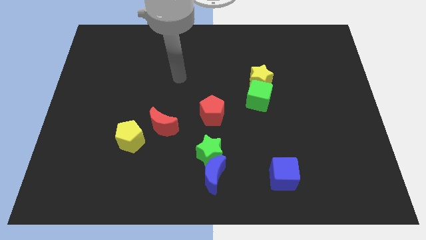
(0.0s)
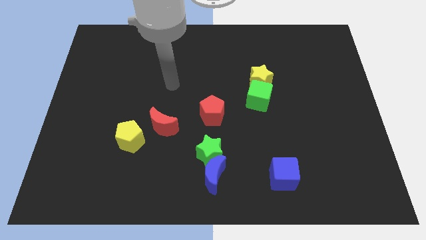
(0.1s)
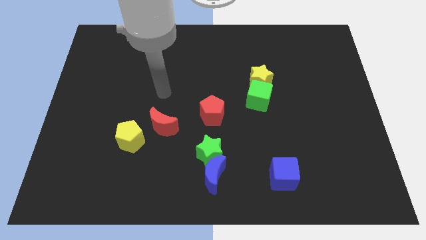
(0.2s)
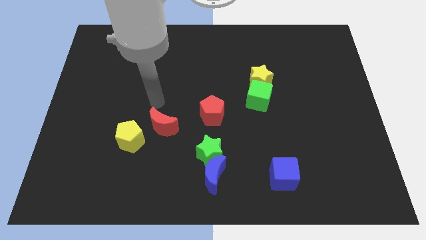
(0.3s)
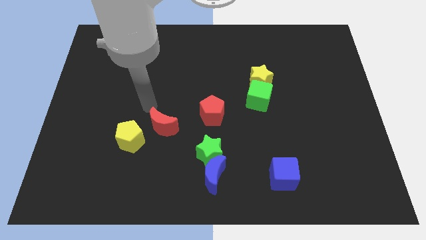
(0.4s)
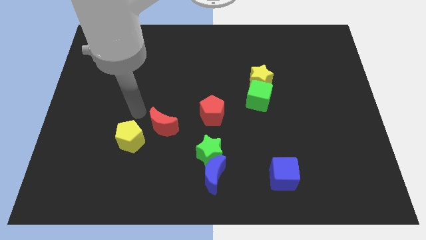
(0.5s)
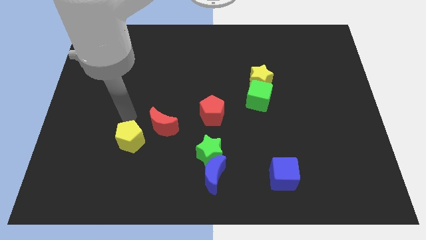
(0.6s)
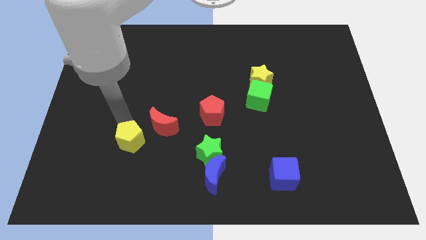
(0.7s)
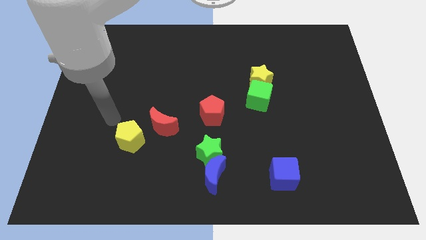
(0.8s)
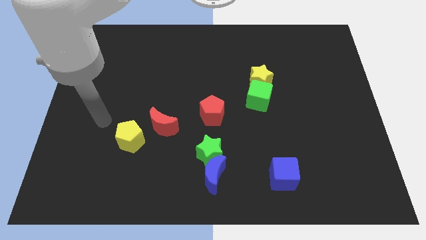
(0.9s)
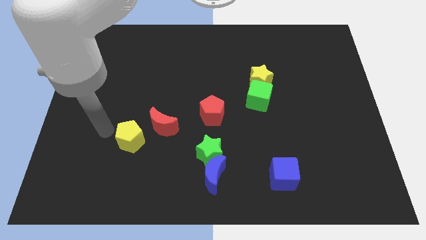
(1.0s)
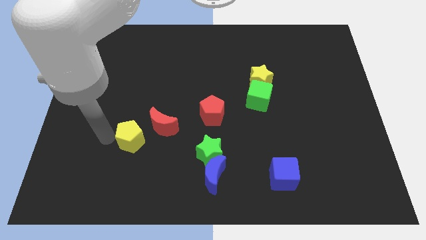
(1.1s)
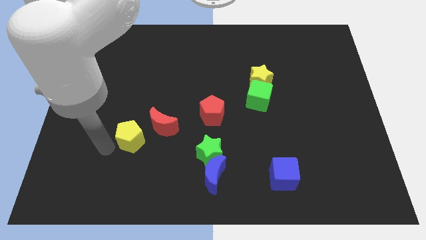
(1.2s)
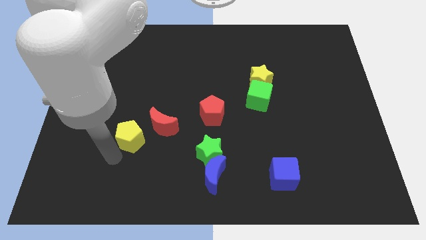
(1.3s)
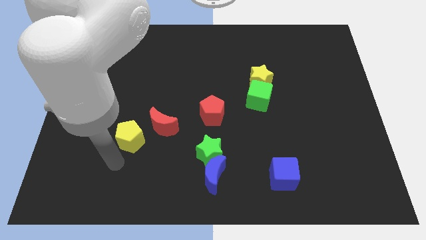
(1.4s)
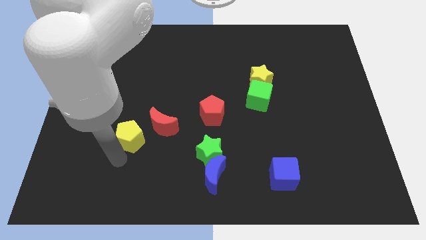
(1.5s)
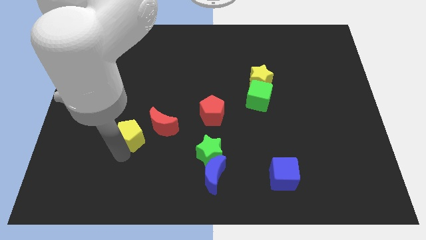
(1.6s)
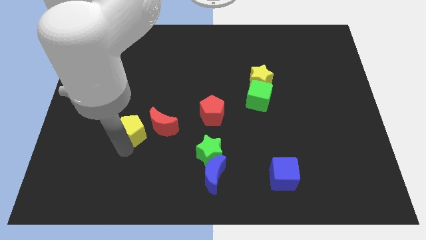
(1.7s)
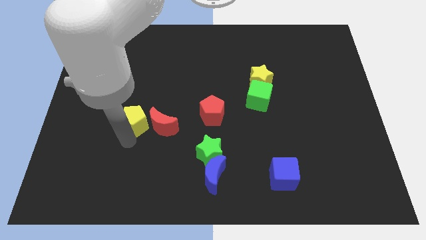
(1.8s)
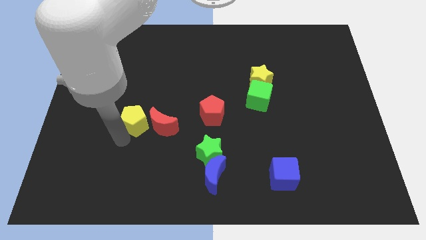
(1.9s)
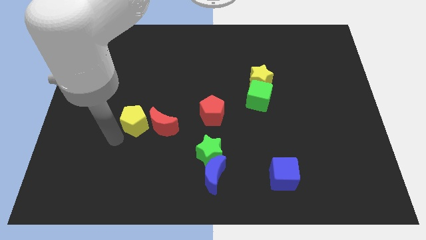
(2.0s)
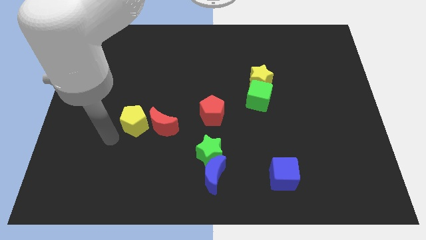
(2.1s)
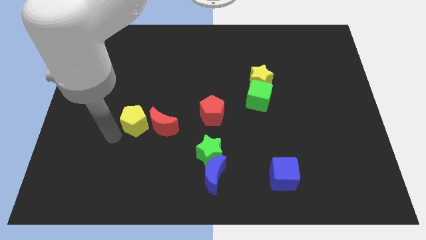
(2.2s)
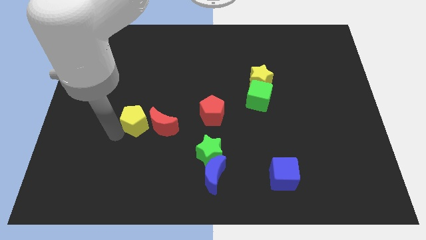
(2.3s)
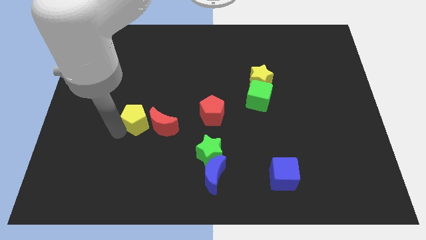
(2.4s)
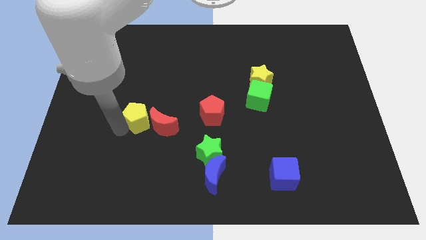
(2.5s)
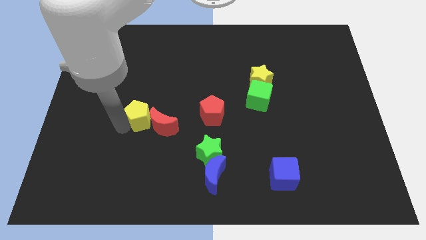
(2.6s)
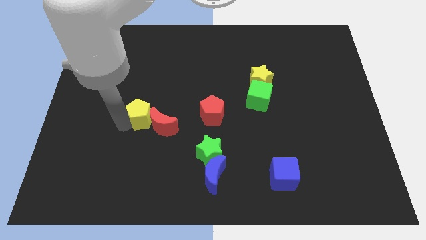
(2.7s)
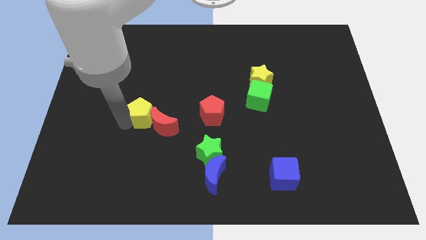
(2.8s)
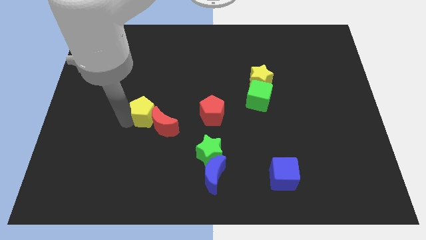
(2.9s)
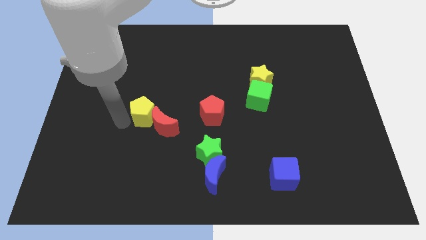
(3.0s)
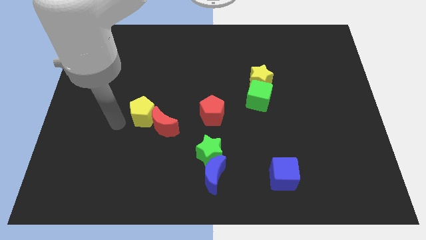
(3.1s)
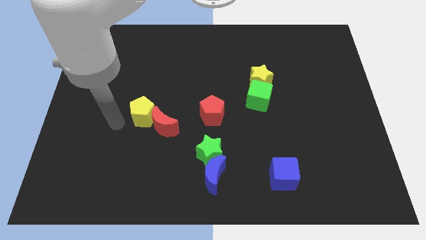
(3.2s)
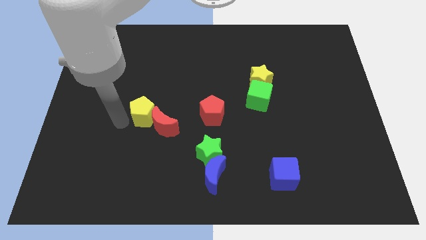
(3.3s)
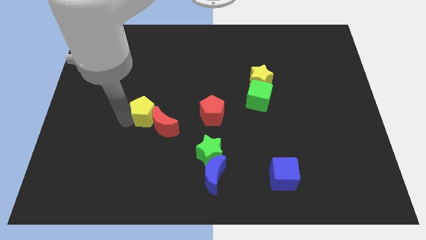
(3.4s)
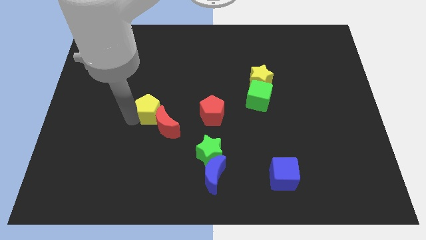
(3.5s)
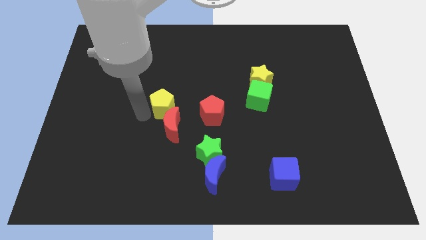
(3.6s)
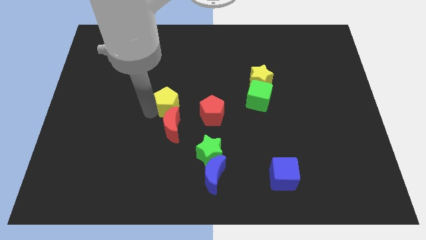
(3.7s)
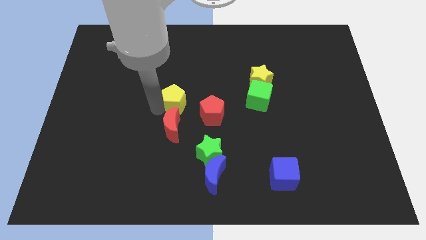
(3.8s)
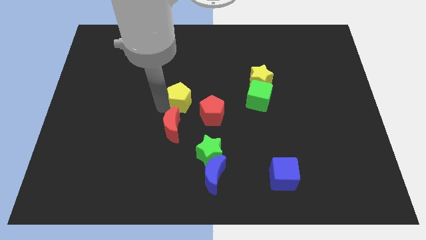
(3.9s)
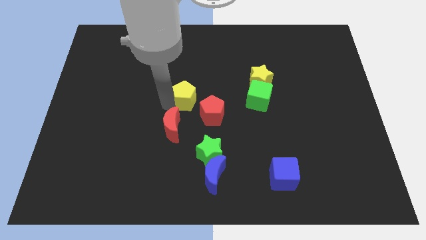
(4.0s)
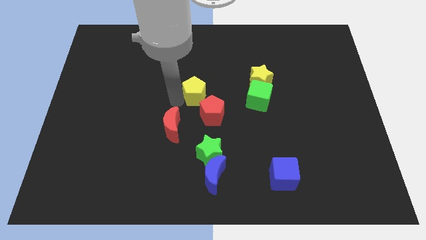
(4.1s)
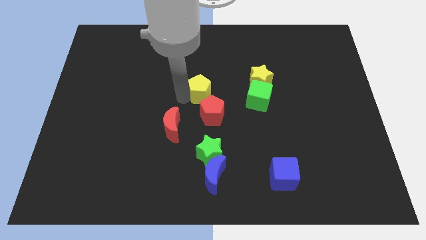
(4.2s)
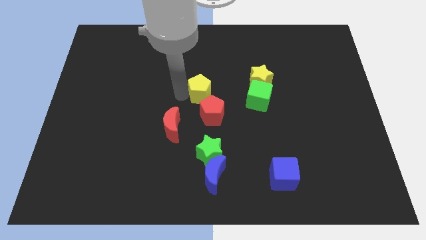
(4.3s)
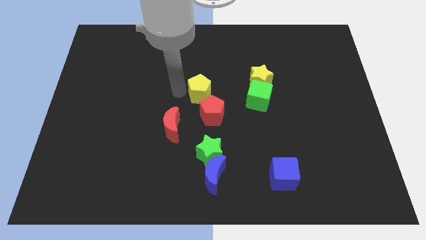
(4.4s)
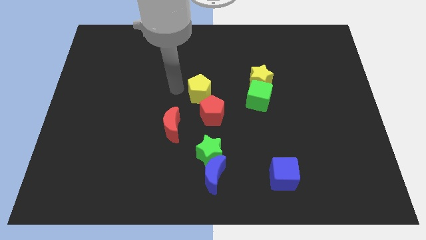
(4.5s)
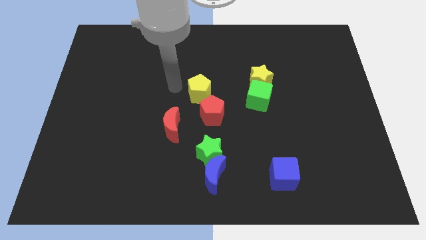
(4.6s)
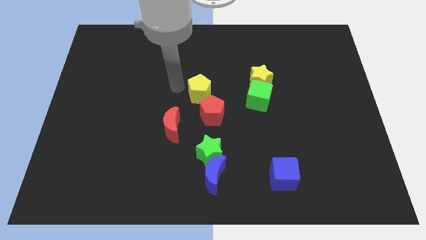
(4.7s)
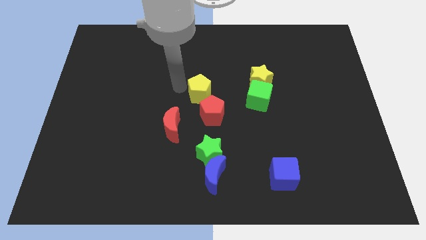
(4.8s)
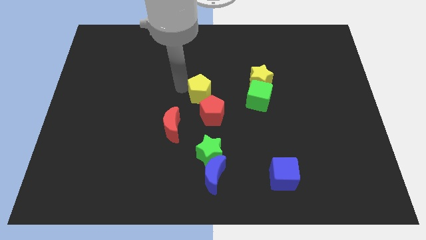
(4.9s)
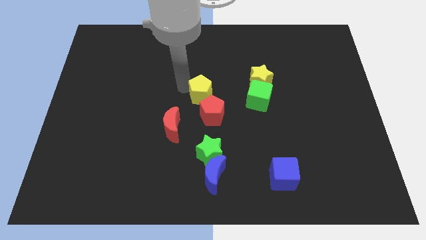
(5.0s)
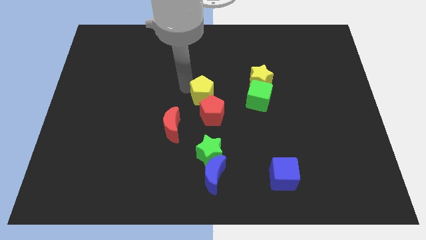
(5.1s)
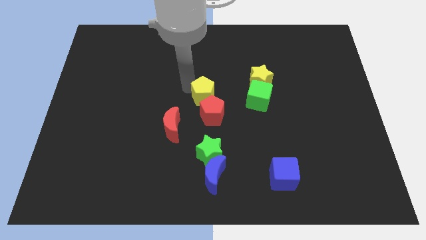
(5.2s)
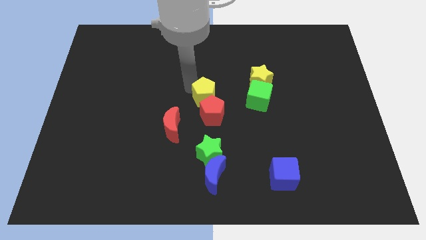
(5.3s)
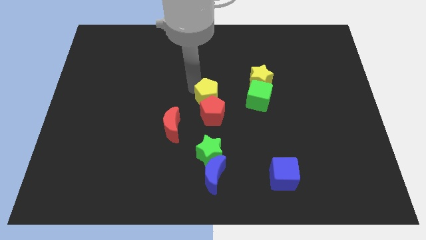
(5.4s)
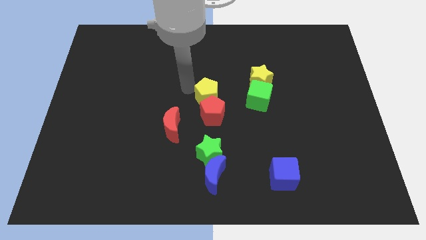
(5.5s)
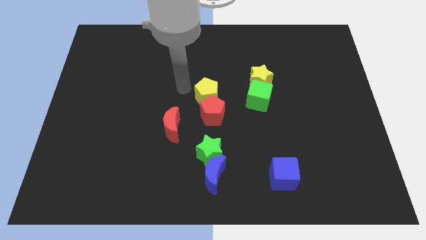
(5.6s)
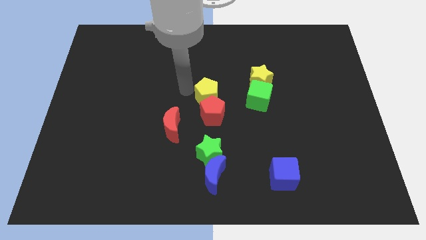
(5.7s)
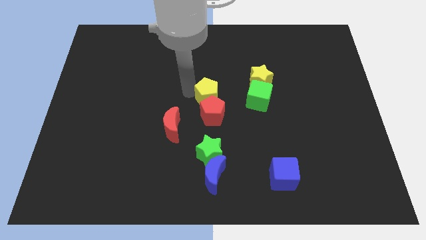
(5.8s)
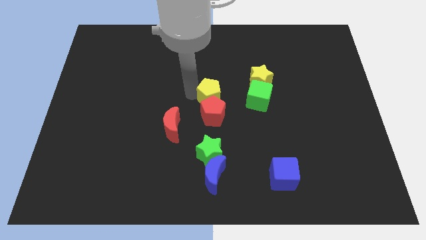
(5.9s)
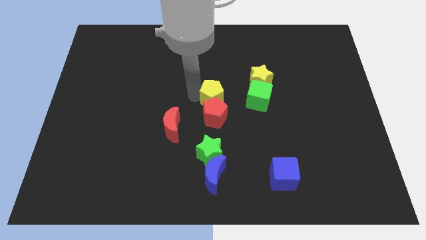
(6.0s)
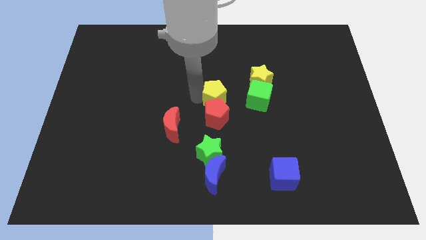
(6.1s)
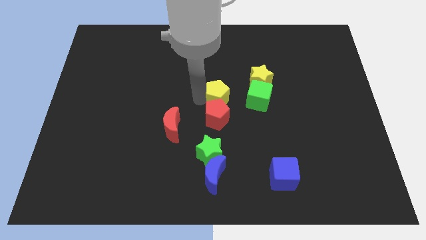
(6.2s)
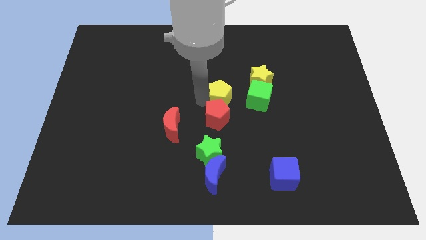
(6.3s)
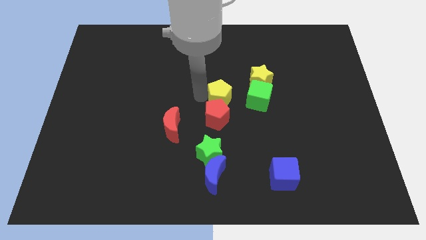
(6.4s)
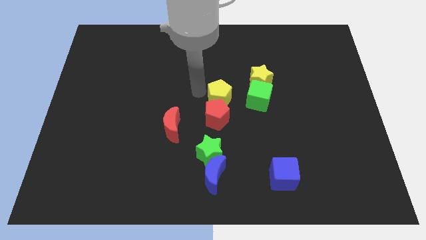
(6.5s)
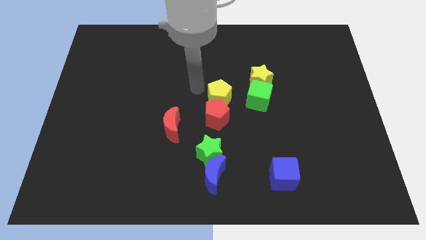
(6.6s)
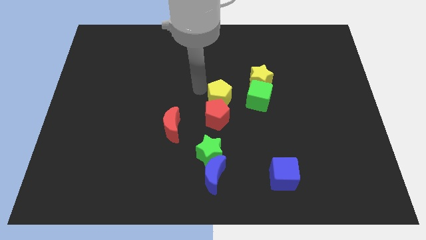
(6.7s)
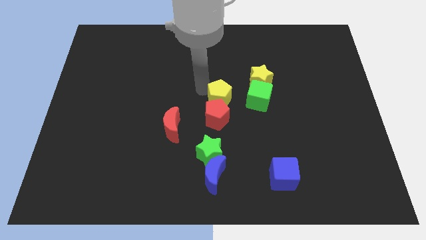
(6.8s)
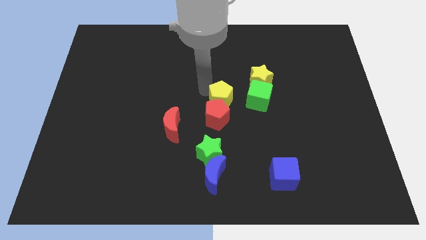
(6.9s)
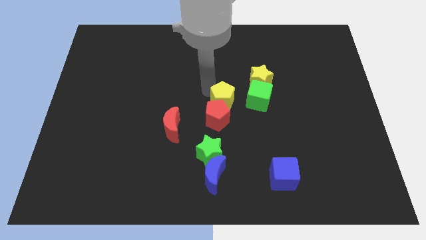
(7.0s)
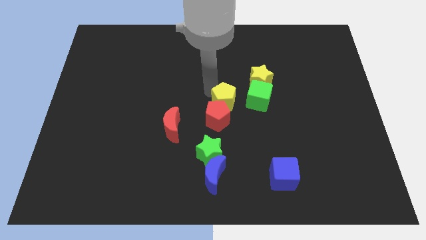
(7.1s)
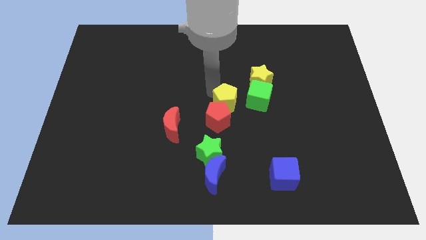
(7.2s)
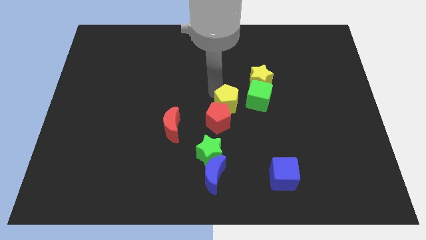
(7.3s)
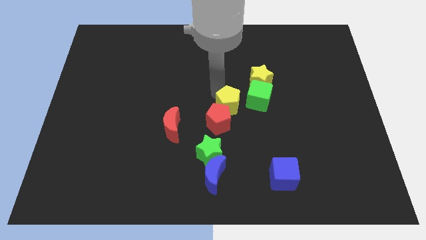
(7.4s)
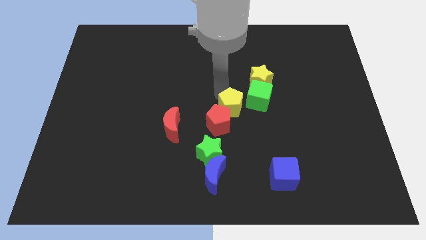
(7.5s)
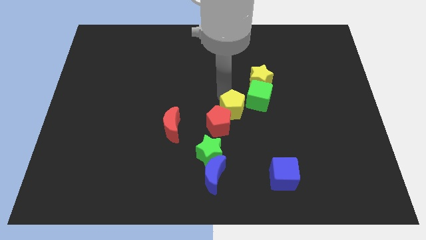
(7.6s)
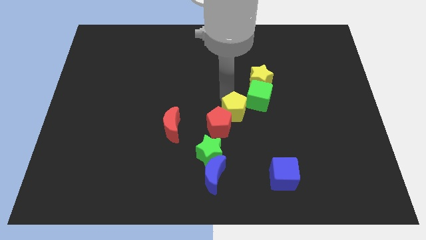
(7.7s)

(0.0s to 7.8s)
push the yellow pentagon right

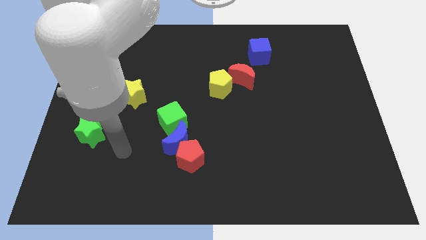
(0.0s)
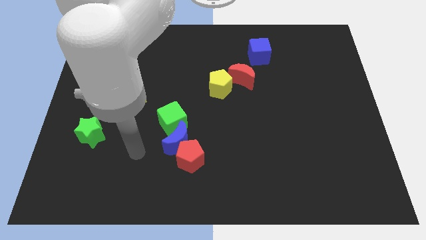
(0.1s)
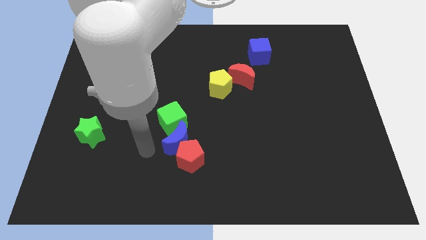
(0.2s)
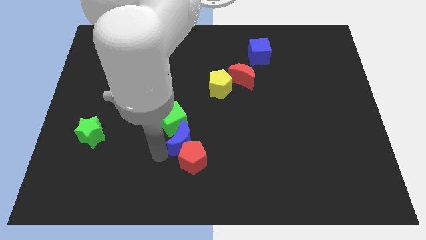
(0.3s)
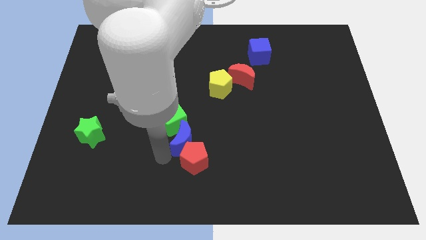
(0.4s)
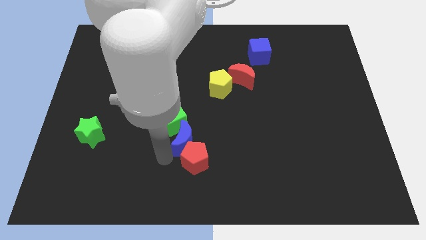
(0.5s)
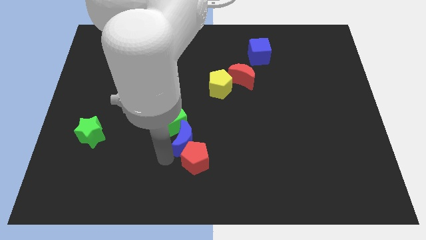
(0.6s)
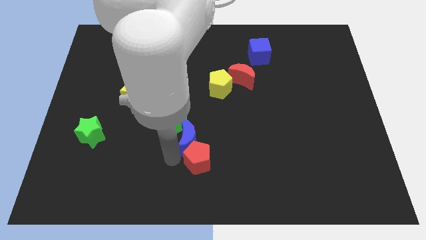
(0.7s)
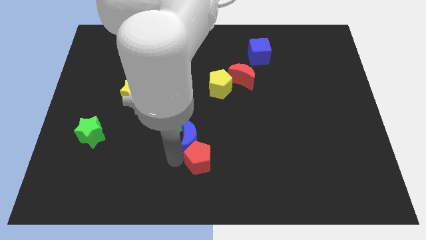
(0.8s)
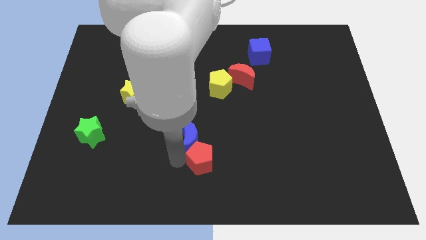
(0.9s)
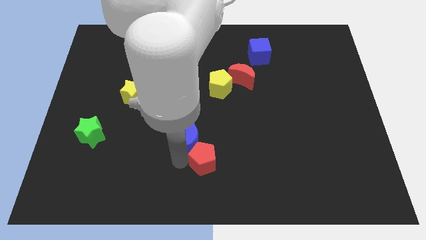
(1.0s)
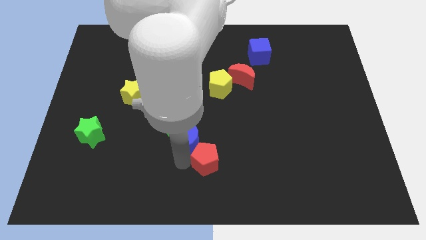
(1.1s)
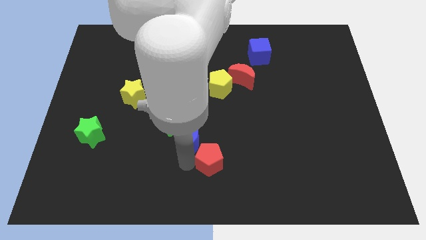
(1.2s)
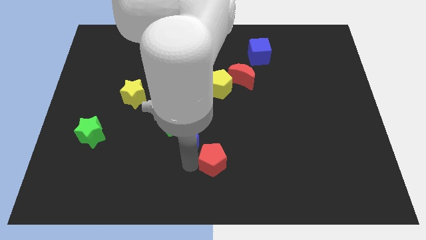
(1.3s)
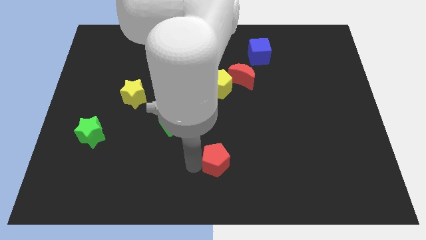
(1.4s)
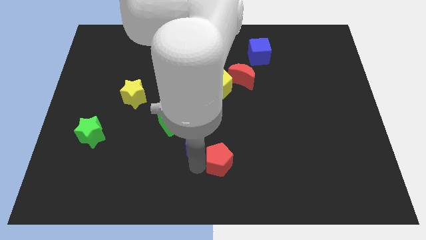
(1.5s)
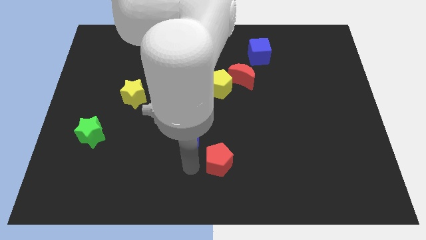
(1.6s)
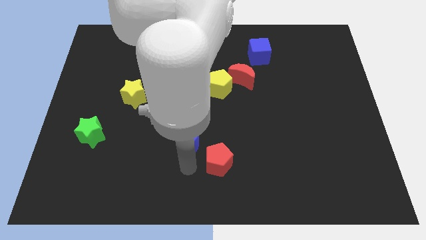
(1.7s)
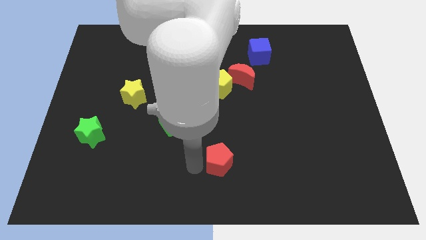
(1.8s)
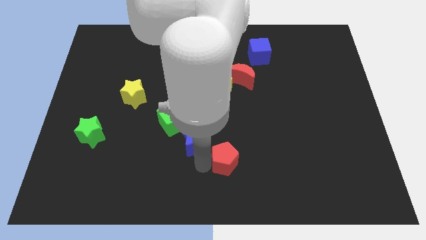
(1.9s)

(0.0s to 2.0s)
push the red pentagon right a little
